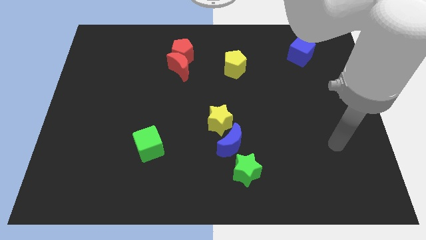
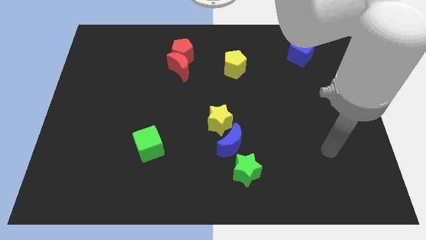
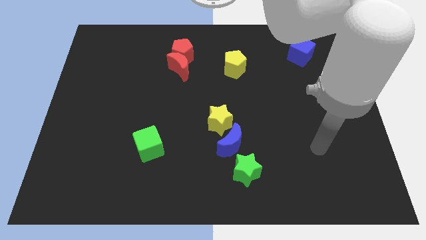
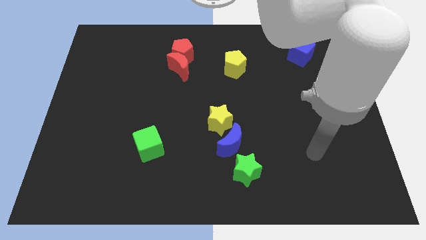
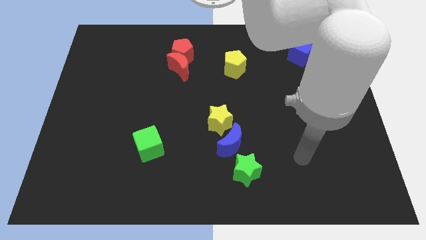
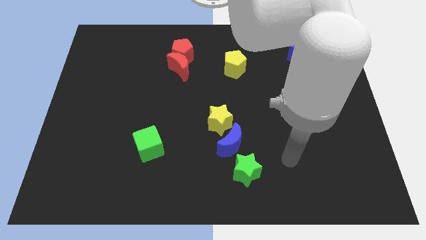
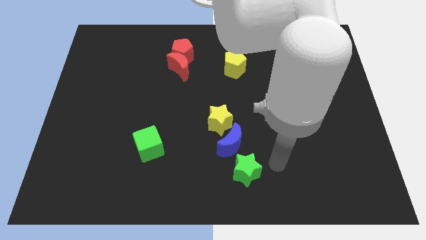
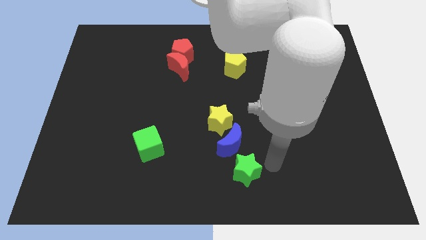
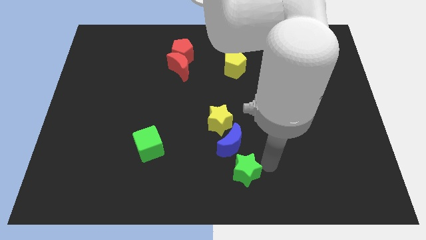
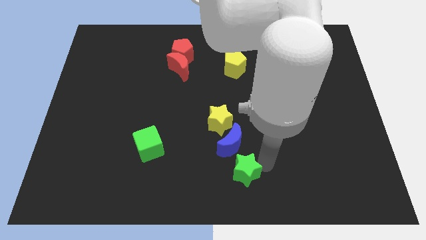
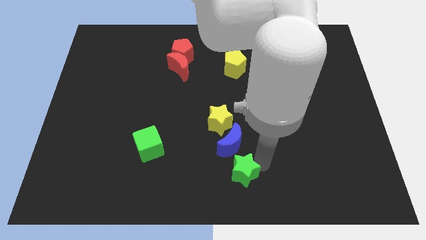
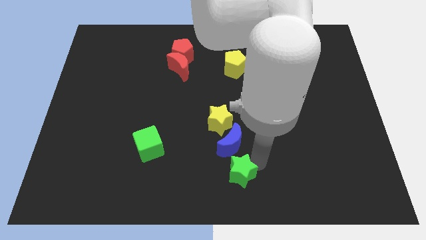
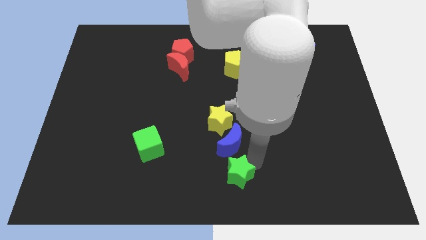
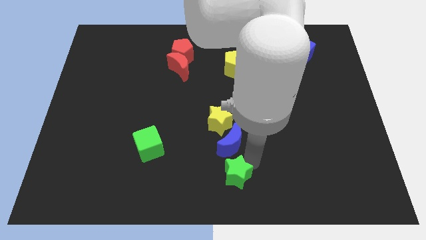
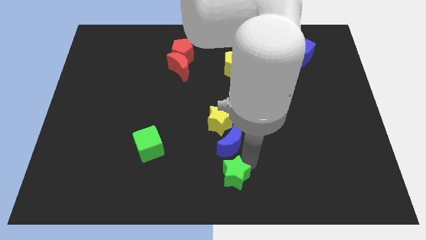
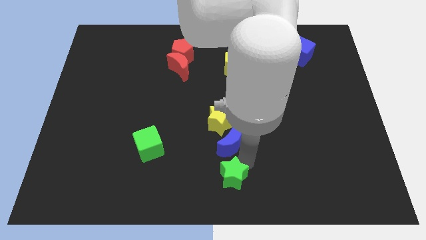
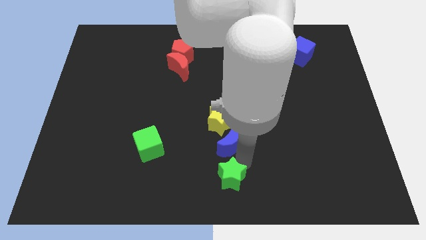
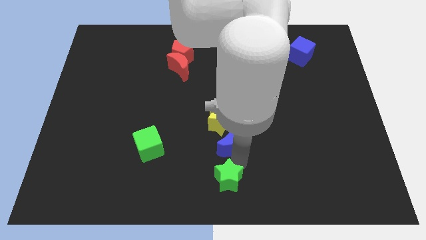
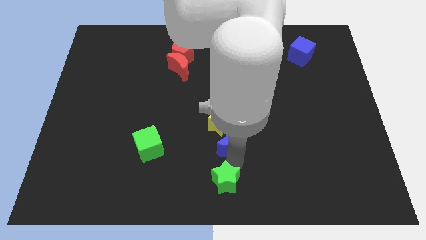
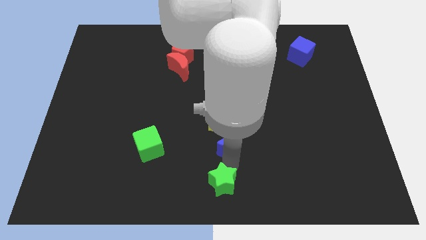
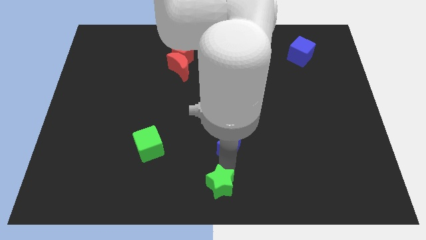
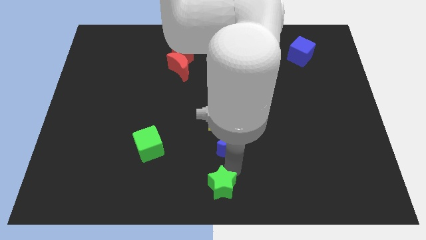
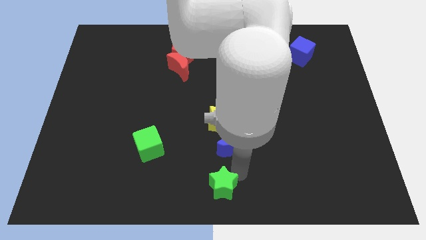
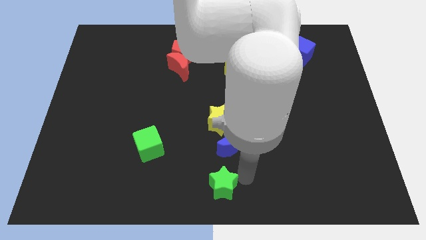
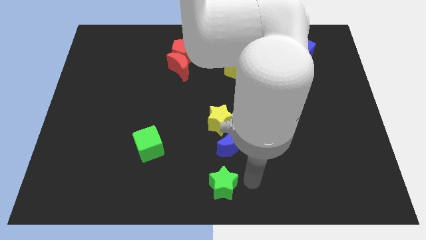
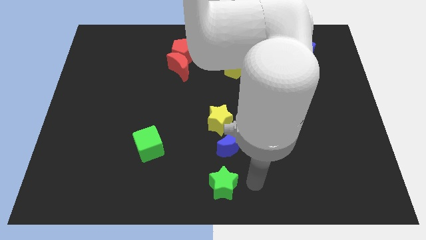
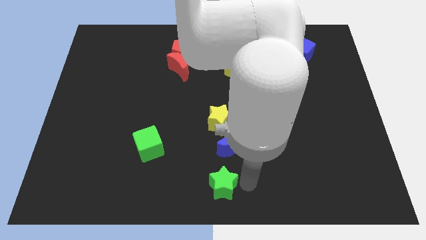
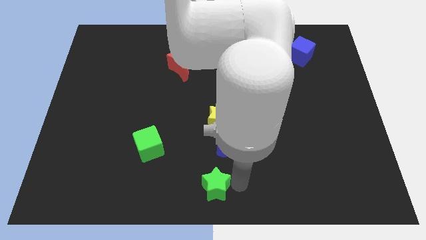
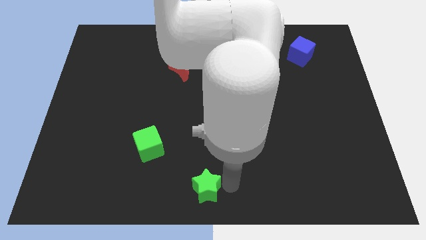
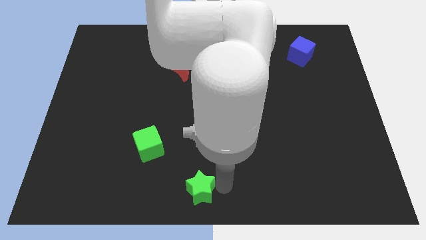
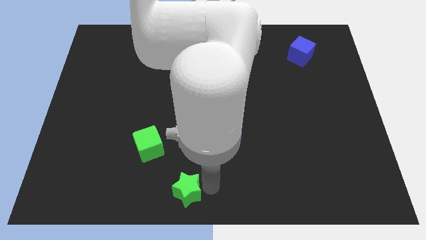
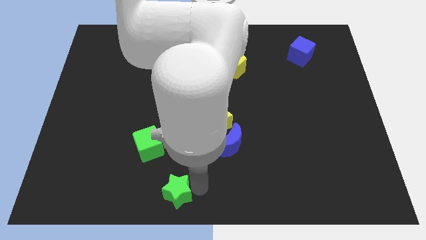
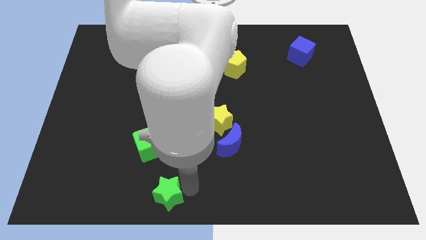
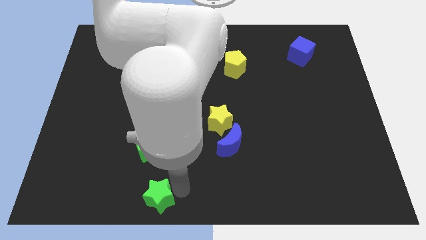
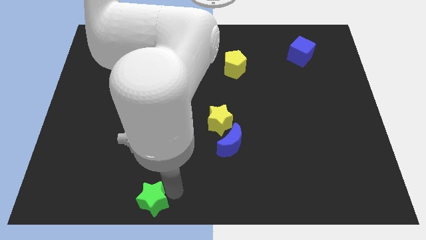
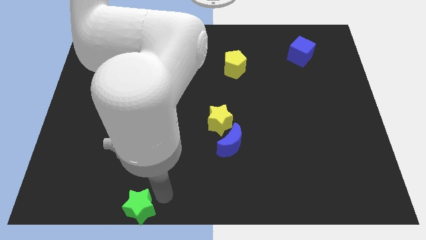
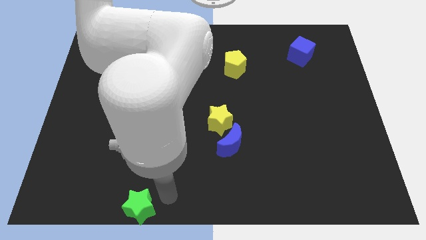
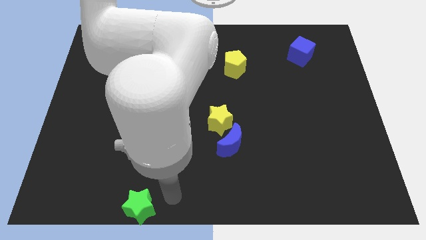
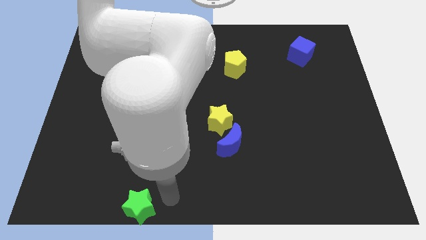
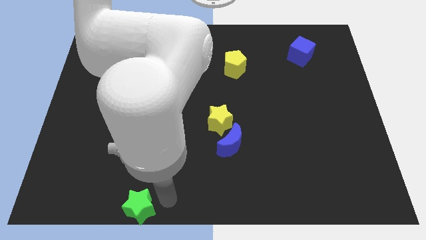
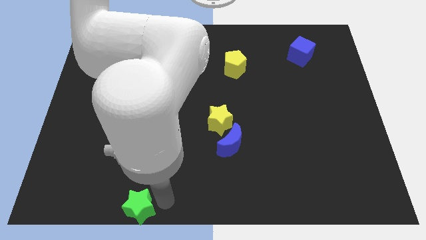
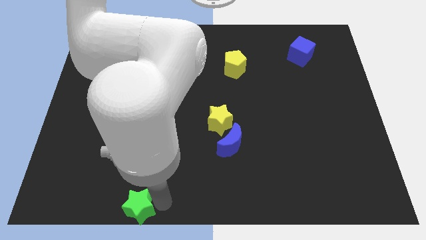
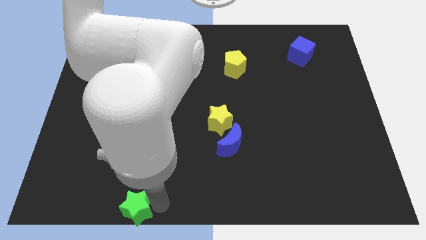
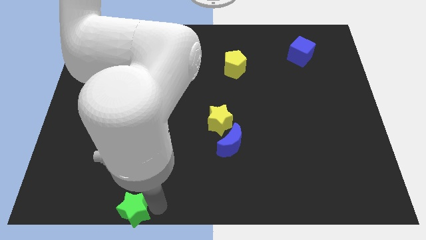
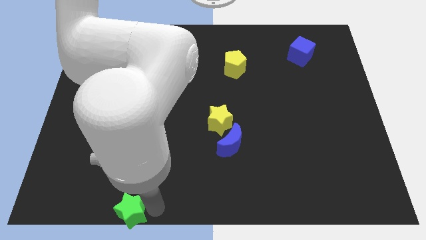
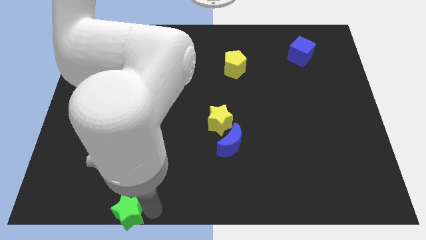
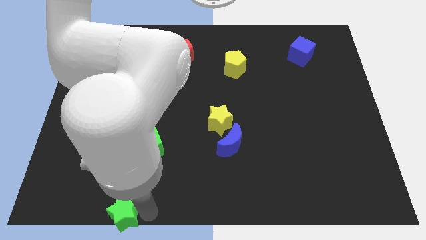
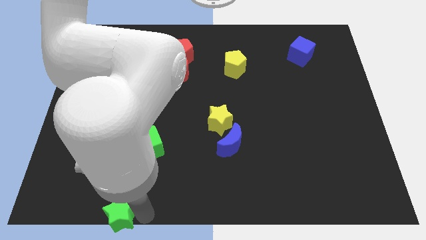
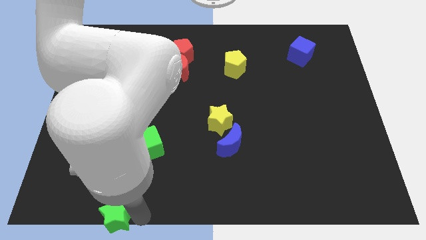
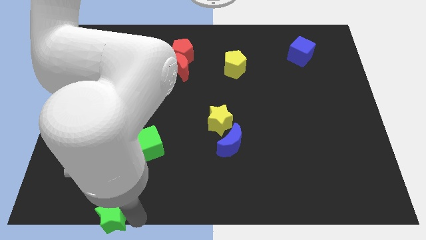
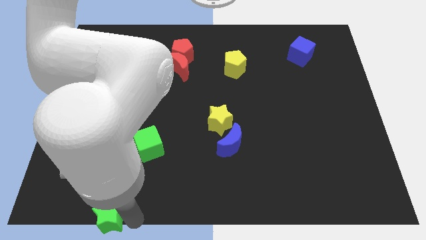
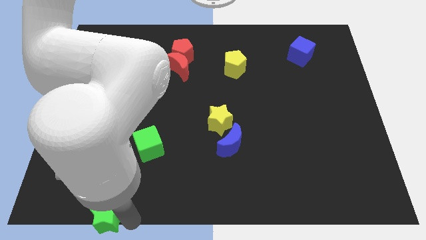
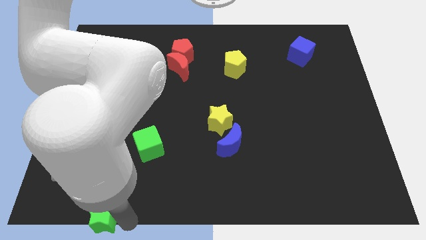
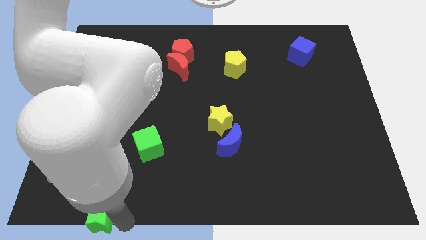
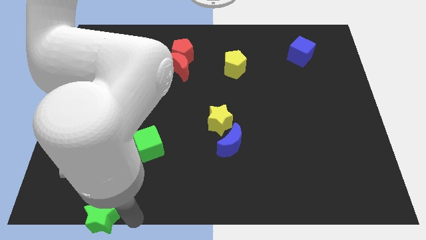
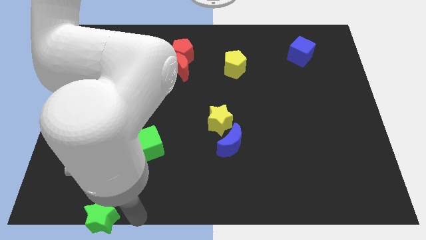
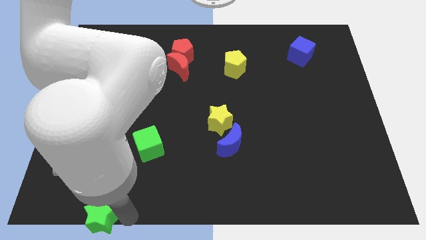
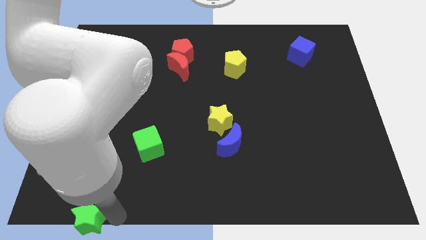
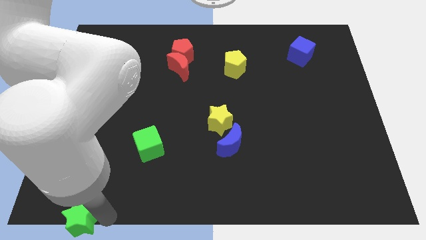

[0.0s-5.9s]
push the green star to the bottom left corner
